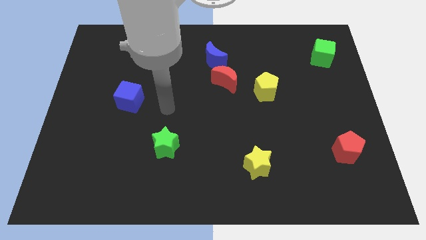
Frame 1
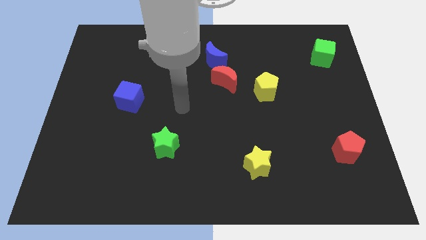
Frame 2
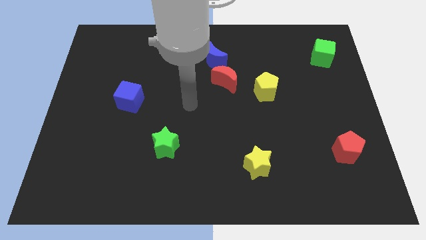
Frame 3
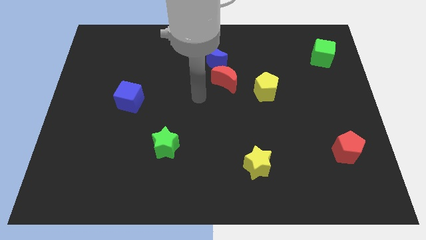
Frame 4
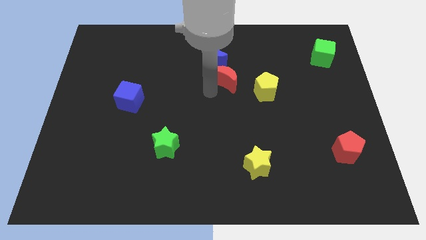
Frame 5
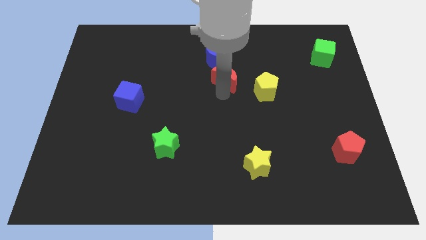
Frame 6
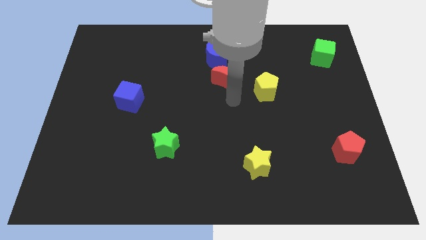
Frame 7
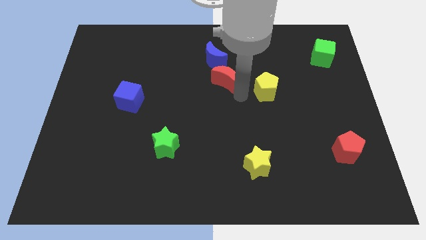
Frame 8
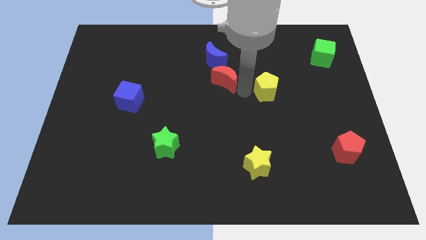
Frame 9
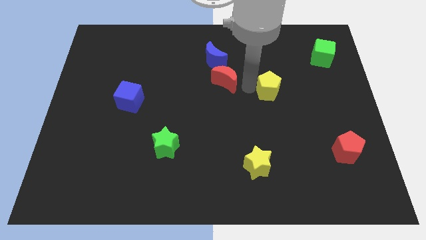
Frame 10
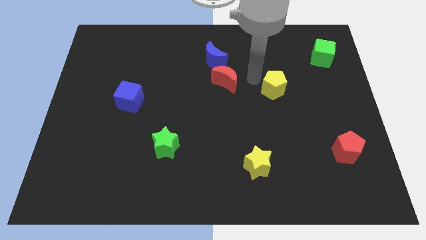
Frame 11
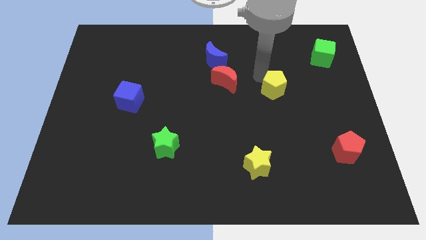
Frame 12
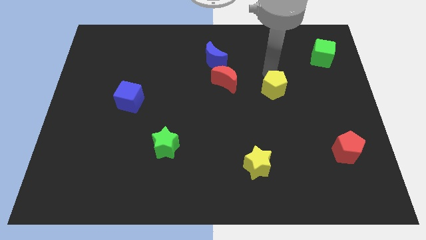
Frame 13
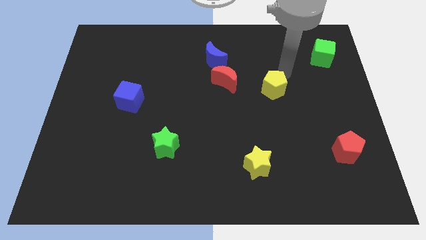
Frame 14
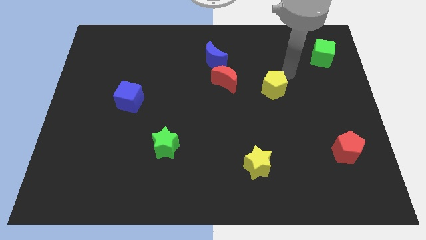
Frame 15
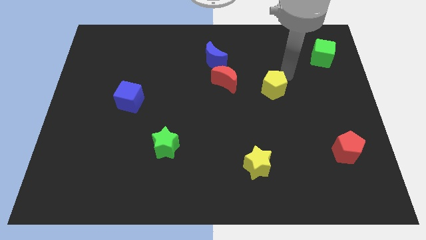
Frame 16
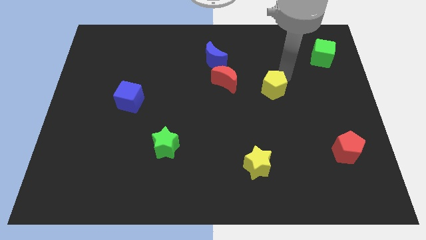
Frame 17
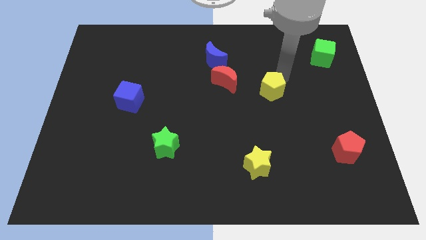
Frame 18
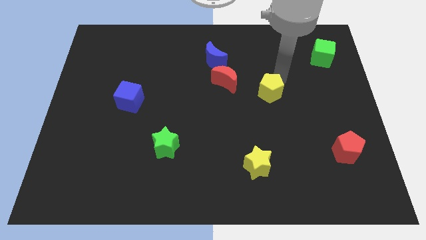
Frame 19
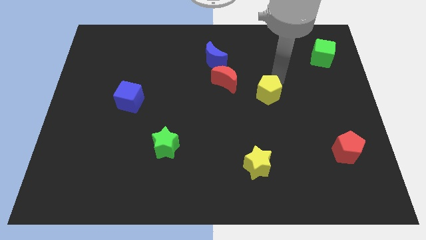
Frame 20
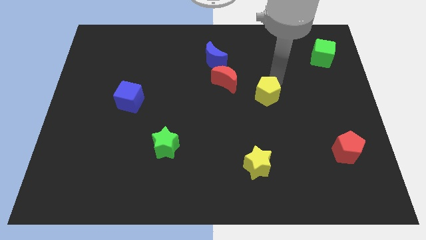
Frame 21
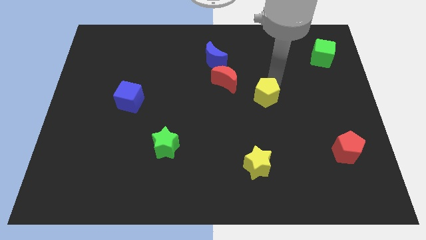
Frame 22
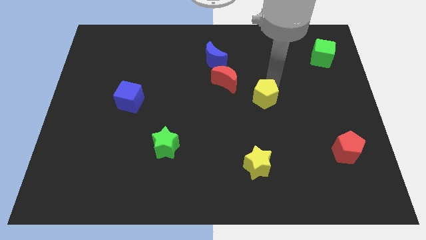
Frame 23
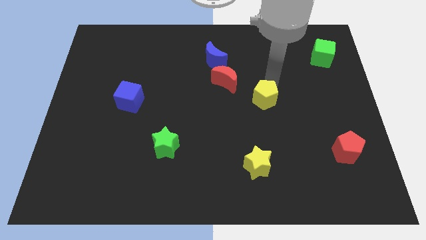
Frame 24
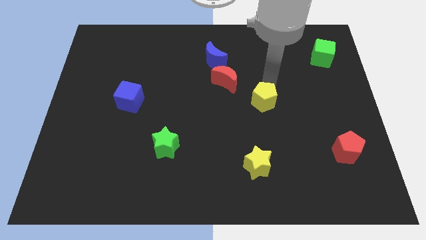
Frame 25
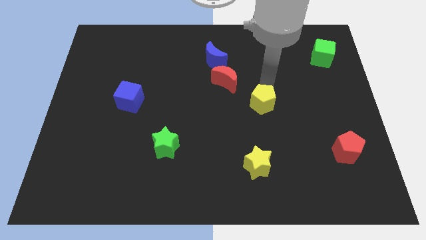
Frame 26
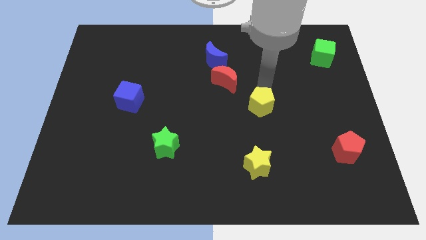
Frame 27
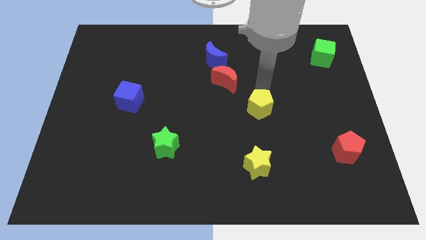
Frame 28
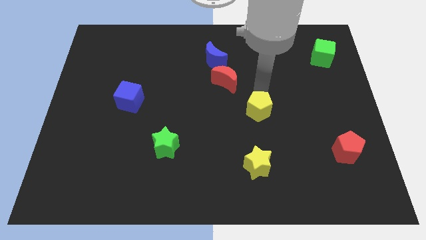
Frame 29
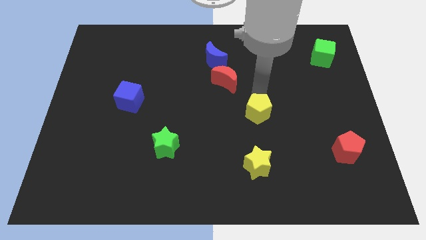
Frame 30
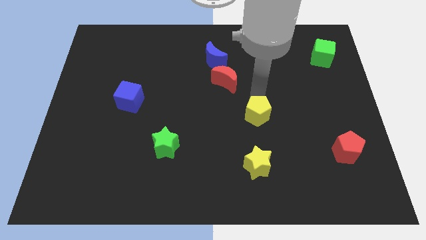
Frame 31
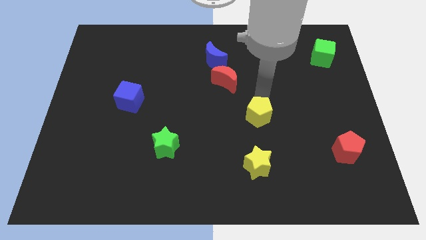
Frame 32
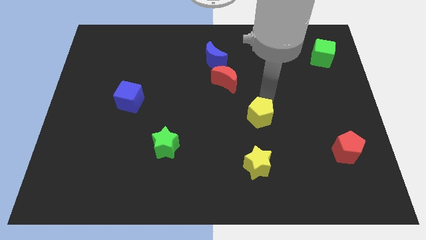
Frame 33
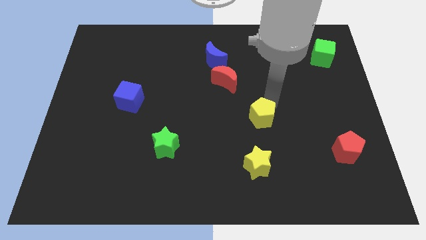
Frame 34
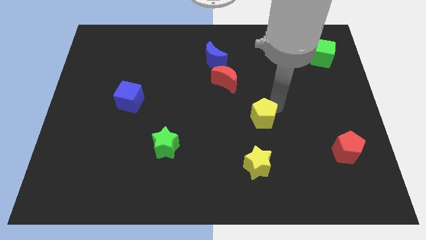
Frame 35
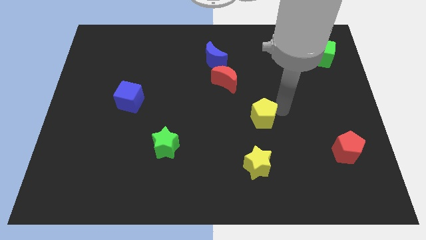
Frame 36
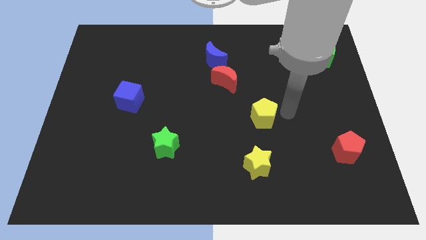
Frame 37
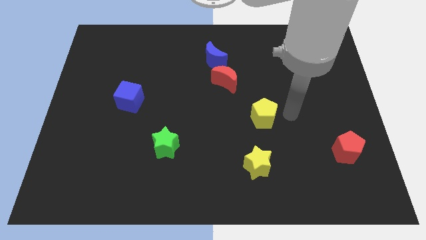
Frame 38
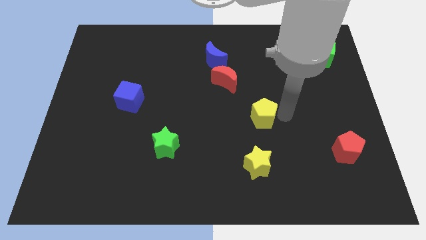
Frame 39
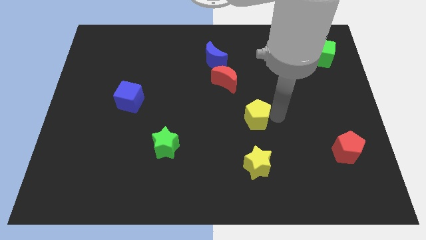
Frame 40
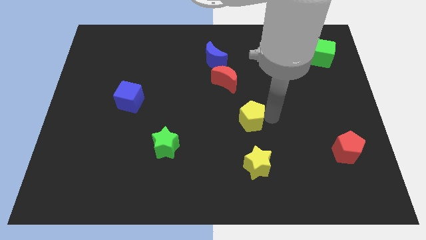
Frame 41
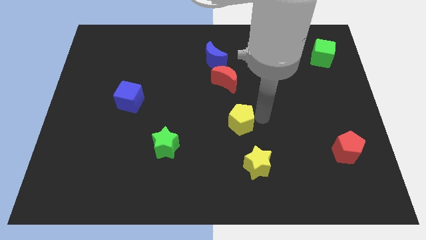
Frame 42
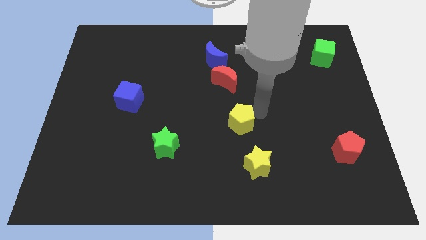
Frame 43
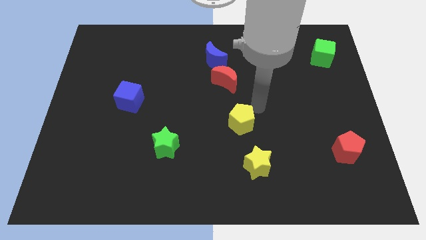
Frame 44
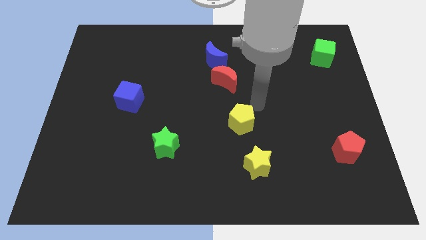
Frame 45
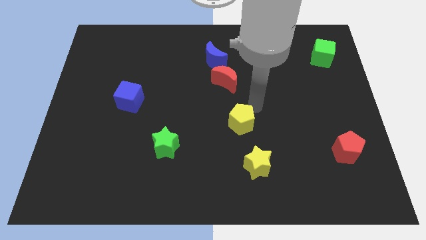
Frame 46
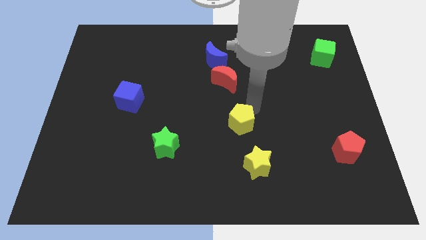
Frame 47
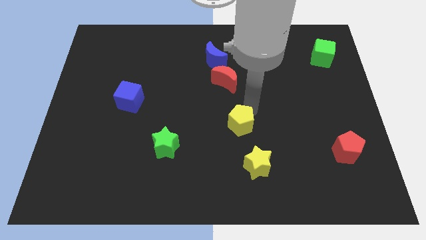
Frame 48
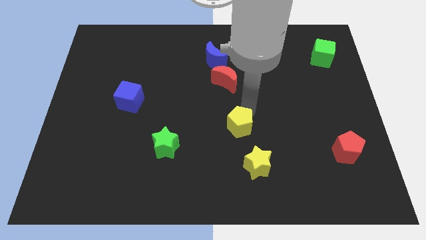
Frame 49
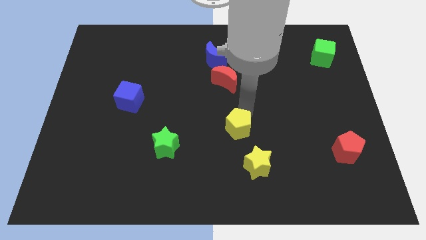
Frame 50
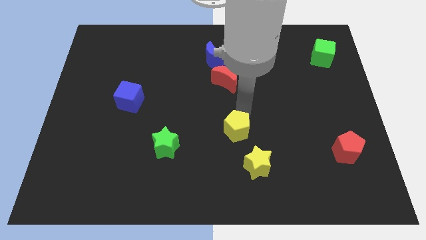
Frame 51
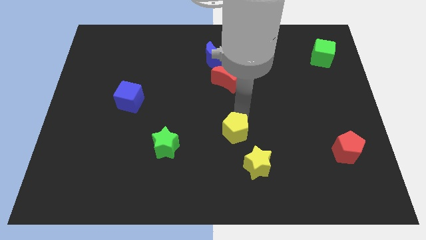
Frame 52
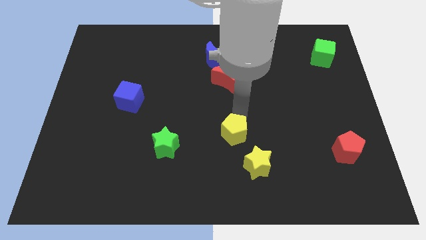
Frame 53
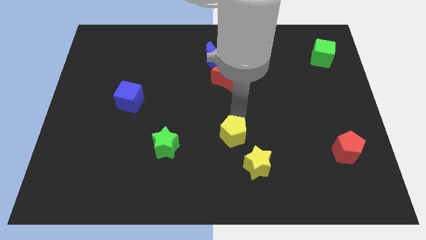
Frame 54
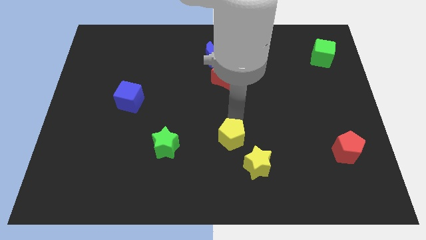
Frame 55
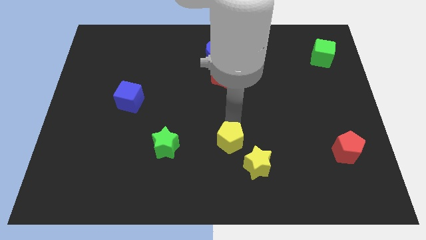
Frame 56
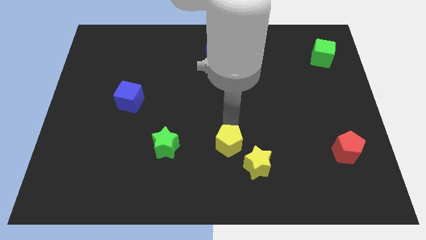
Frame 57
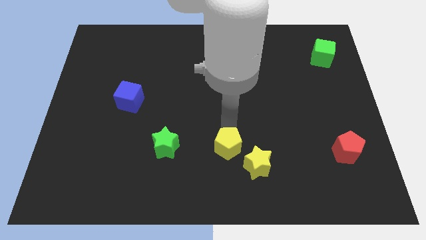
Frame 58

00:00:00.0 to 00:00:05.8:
move the yellow pentagon left of the yellow star
